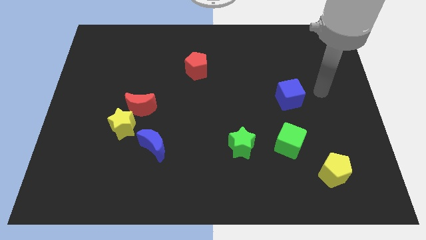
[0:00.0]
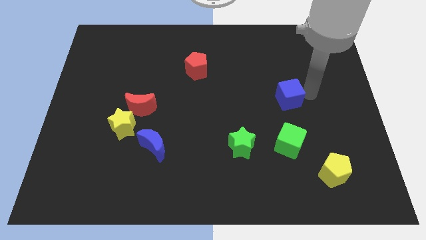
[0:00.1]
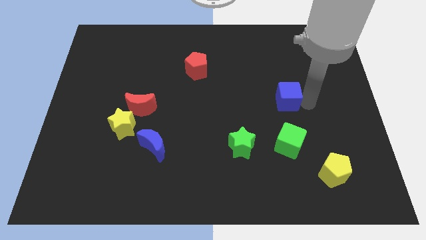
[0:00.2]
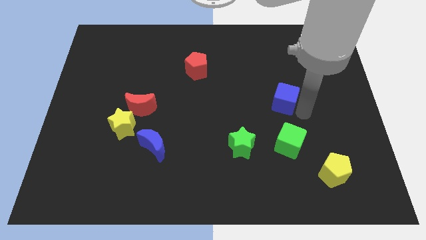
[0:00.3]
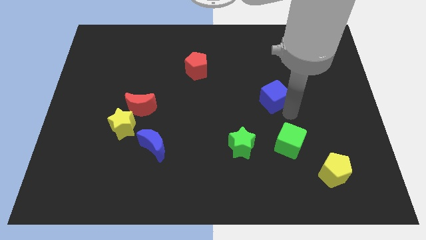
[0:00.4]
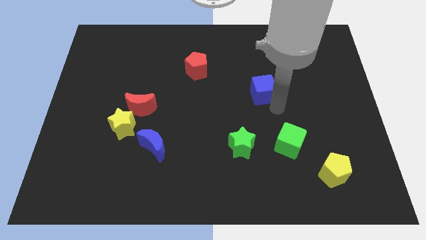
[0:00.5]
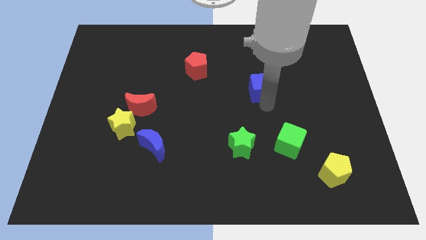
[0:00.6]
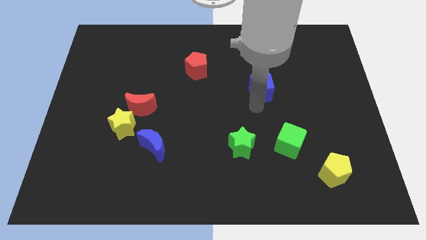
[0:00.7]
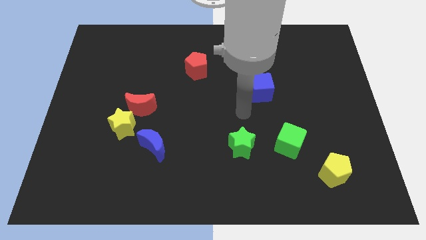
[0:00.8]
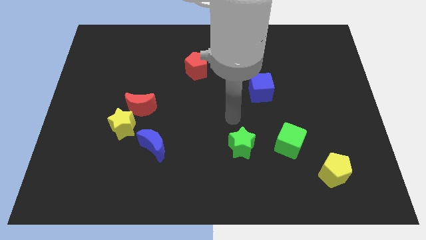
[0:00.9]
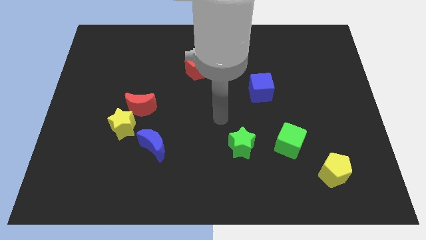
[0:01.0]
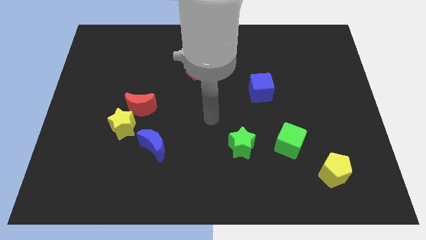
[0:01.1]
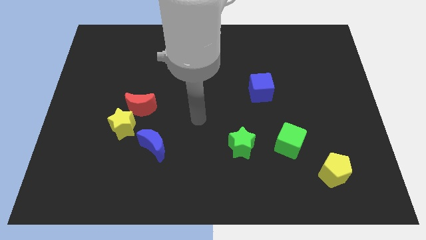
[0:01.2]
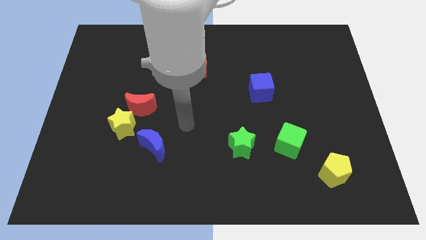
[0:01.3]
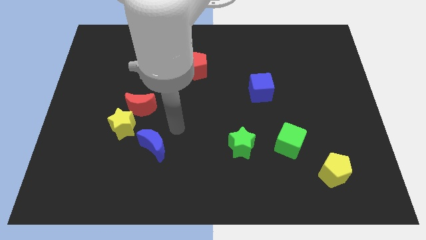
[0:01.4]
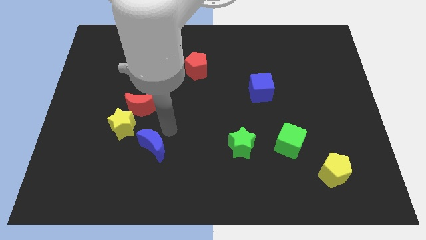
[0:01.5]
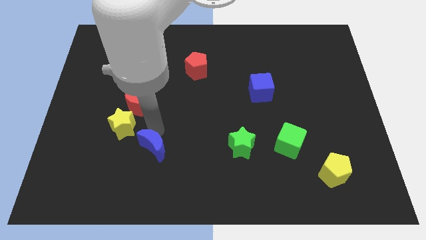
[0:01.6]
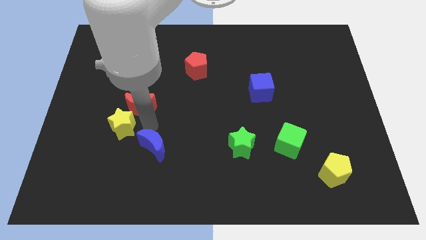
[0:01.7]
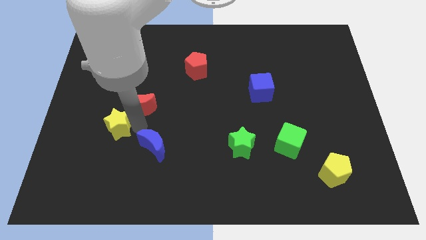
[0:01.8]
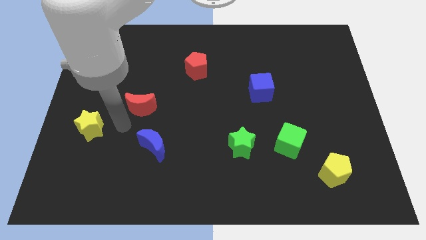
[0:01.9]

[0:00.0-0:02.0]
separate the red moon from the yellow star

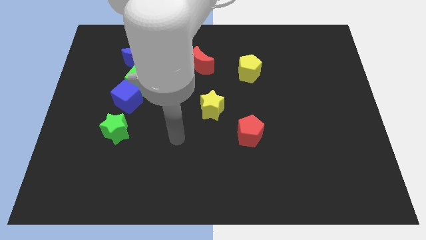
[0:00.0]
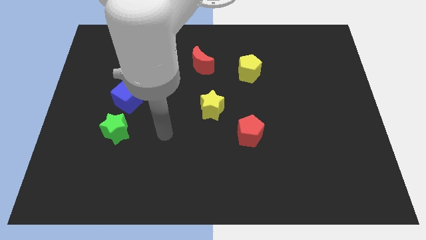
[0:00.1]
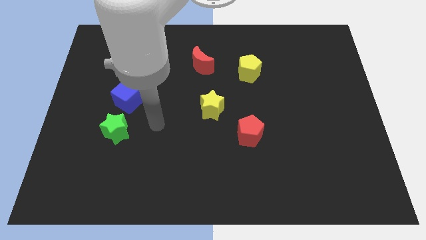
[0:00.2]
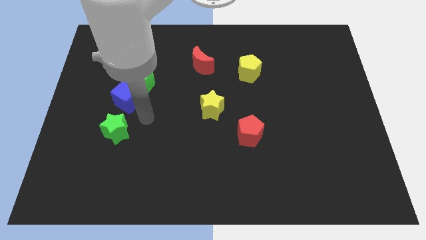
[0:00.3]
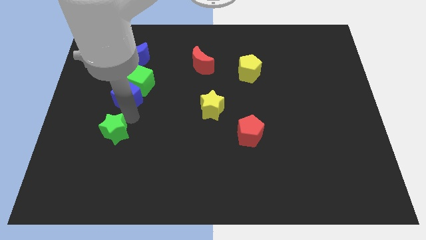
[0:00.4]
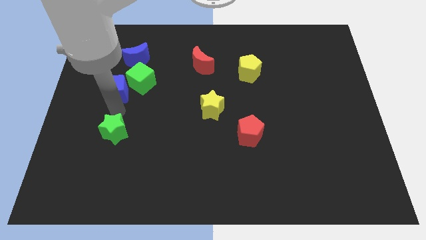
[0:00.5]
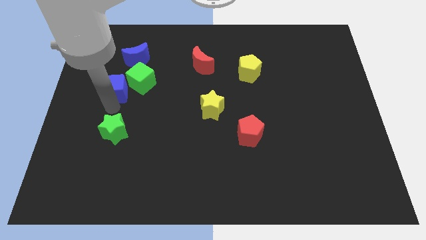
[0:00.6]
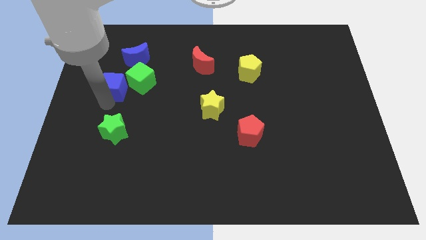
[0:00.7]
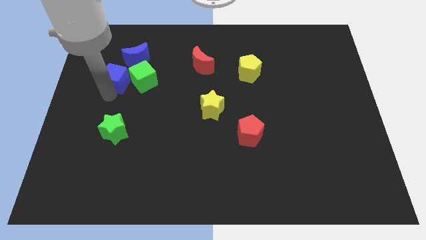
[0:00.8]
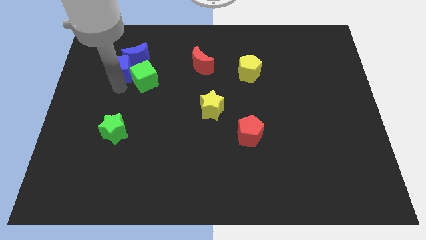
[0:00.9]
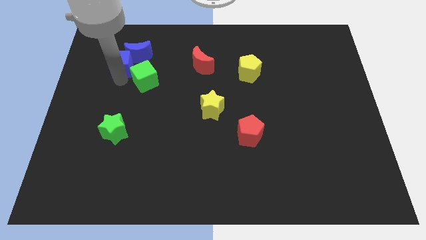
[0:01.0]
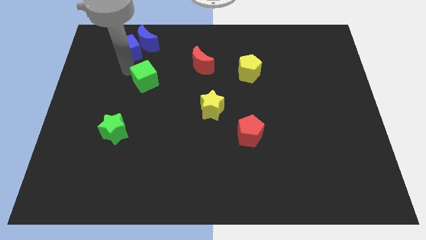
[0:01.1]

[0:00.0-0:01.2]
separate the green cube from the blue cube and blue moon

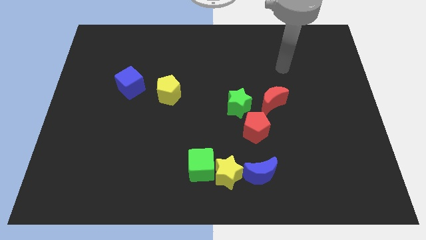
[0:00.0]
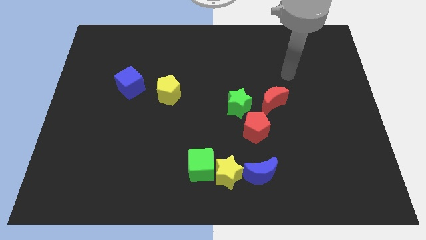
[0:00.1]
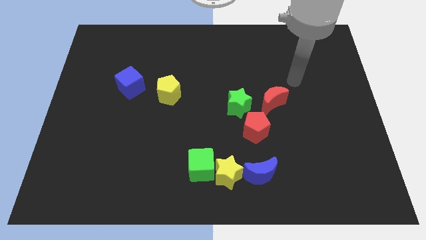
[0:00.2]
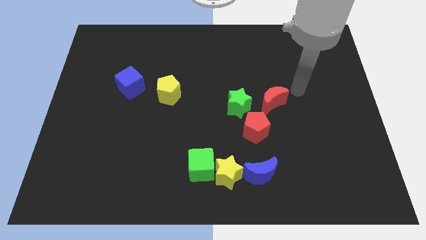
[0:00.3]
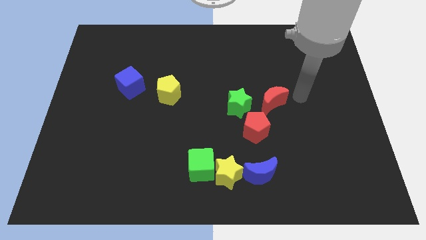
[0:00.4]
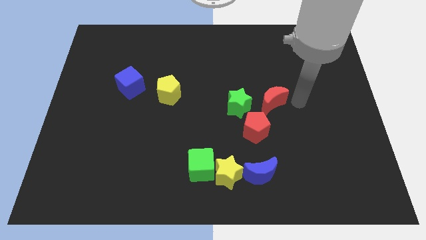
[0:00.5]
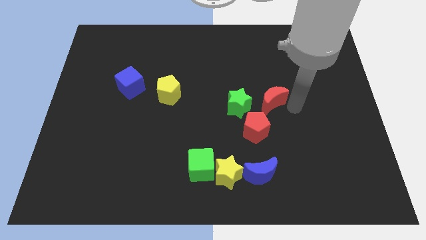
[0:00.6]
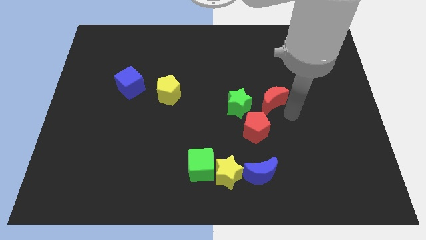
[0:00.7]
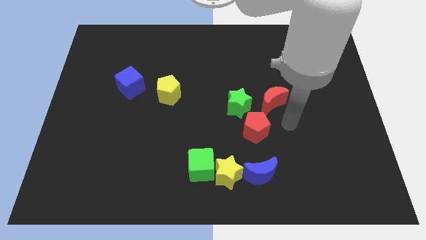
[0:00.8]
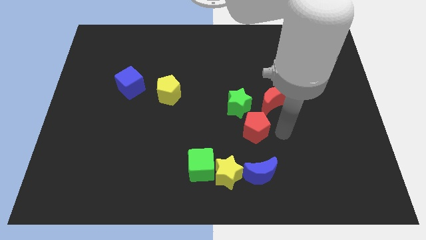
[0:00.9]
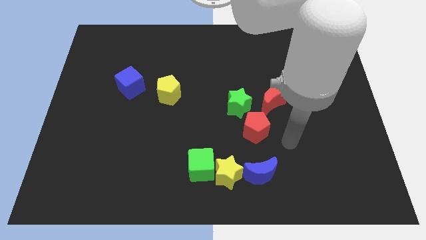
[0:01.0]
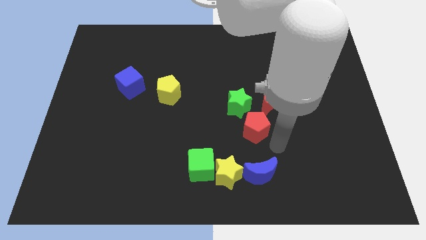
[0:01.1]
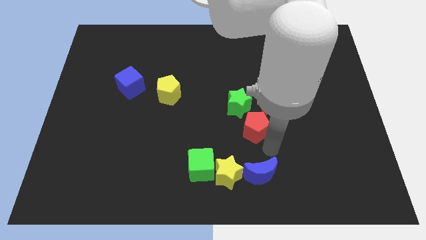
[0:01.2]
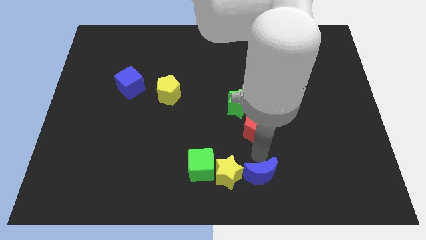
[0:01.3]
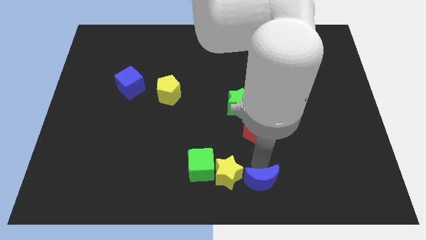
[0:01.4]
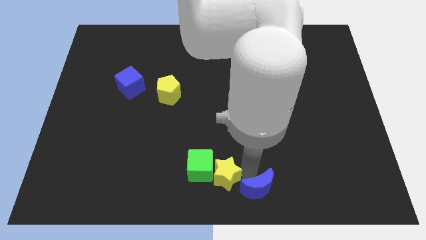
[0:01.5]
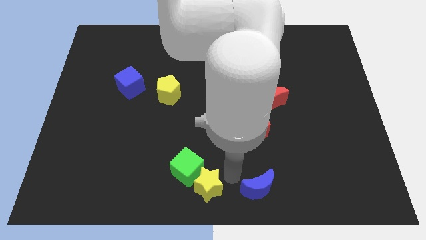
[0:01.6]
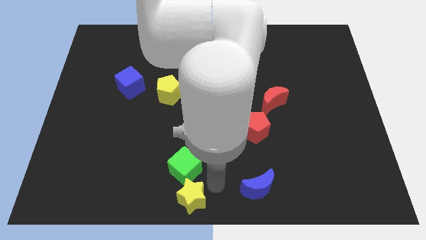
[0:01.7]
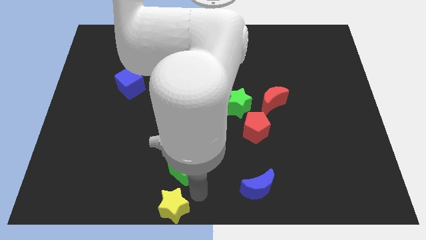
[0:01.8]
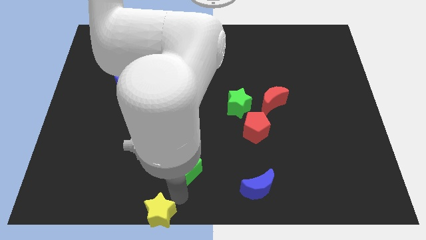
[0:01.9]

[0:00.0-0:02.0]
move the green cube away from the yellow star

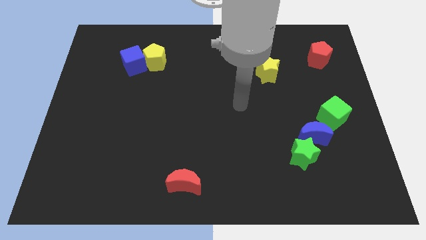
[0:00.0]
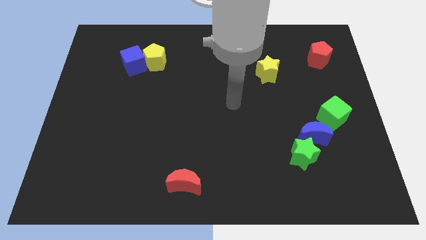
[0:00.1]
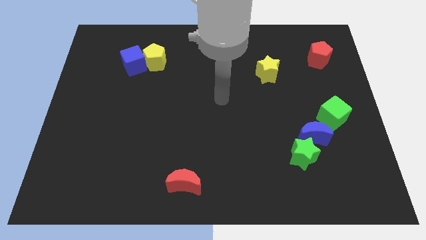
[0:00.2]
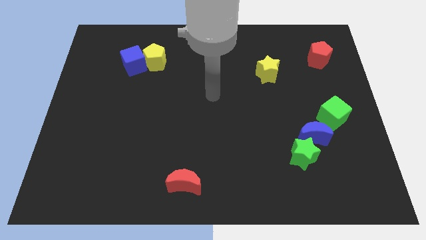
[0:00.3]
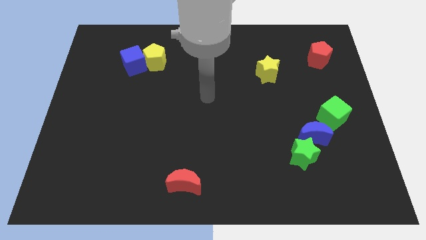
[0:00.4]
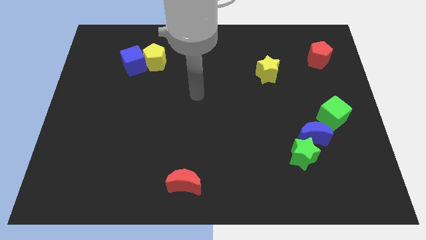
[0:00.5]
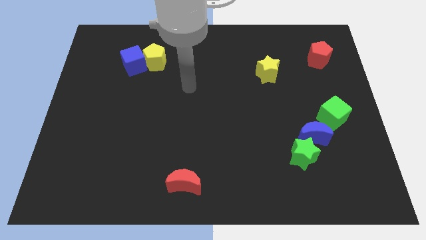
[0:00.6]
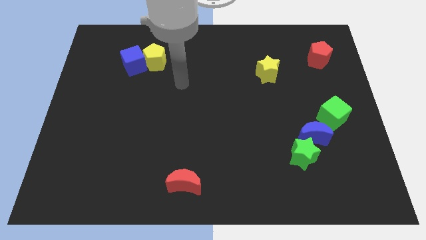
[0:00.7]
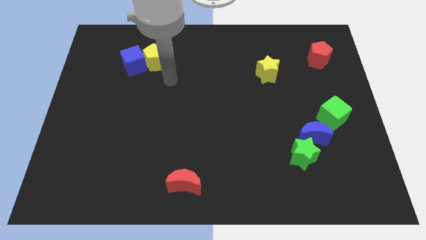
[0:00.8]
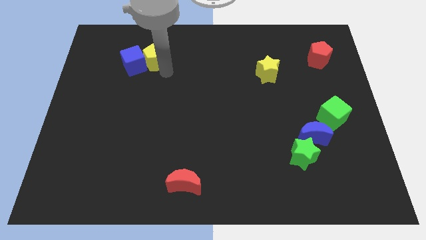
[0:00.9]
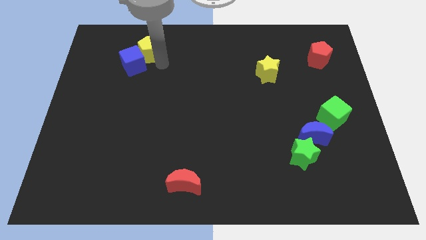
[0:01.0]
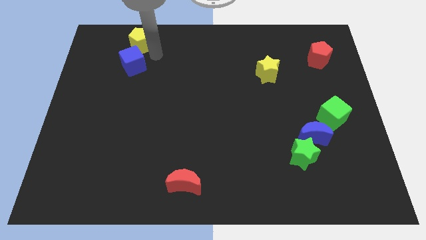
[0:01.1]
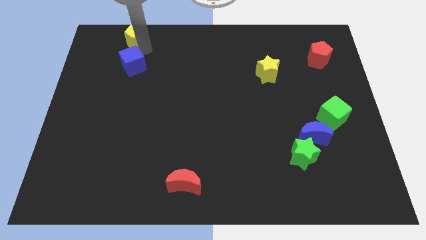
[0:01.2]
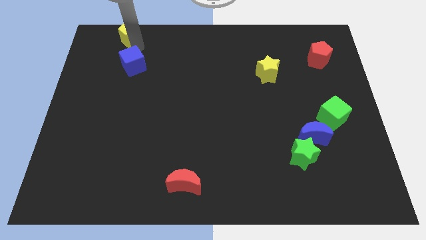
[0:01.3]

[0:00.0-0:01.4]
move the blue cube away from the yellow pentagon

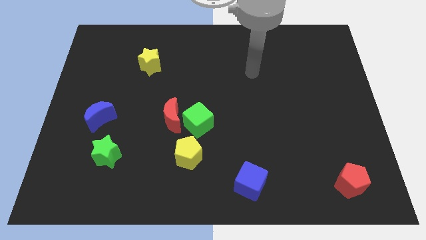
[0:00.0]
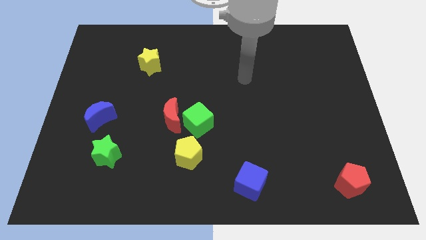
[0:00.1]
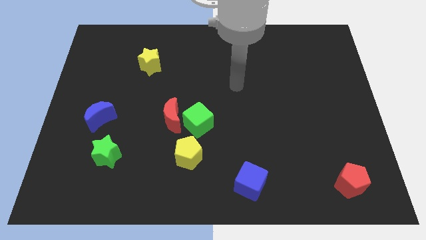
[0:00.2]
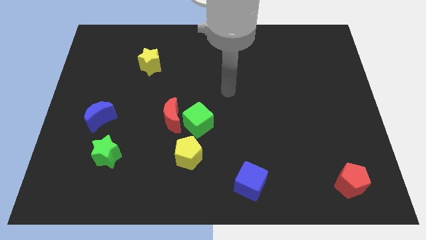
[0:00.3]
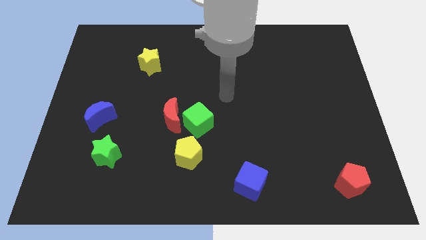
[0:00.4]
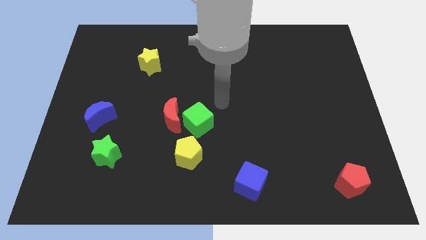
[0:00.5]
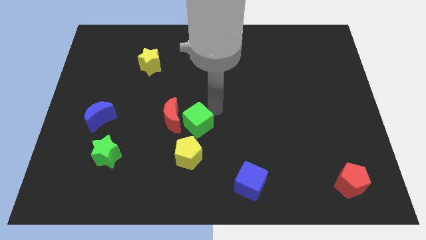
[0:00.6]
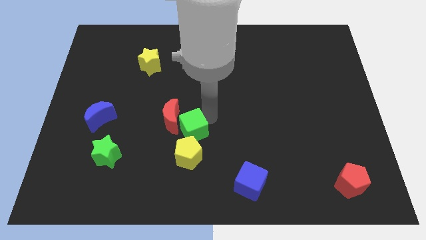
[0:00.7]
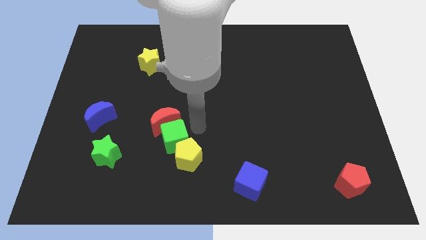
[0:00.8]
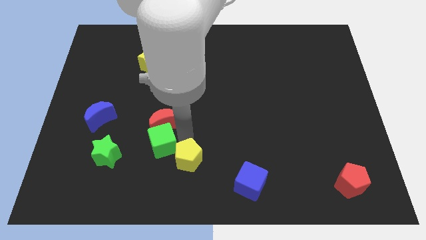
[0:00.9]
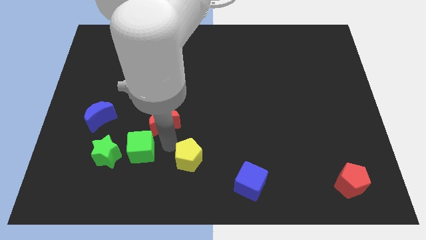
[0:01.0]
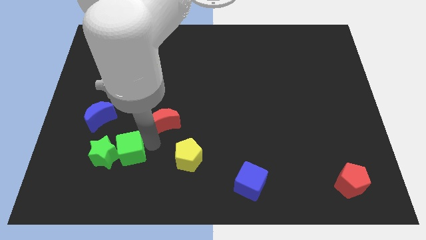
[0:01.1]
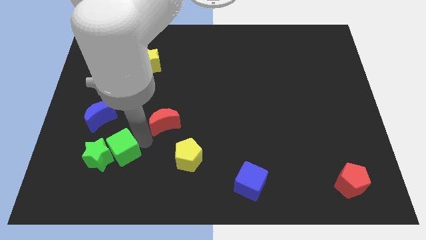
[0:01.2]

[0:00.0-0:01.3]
separate the red moon from the green cube

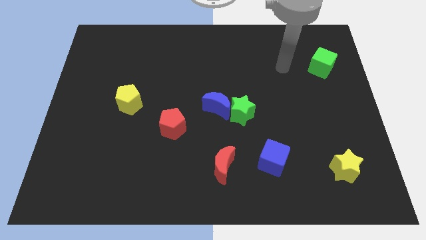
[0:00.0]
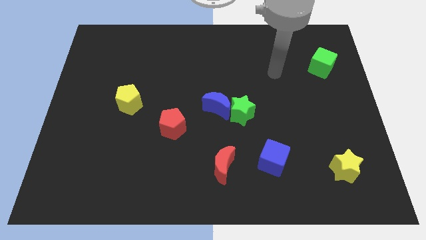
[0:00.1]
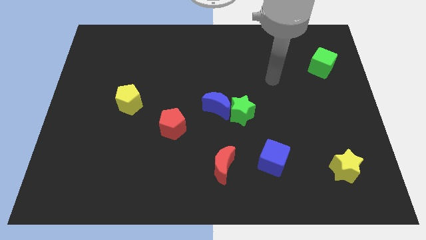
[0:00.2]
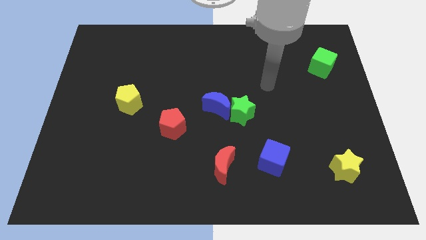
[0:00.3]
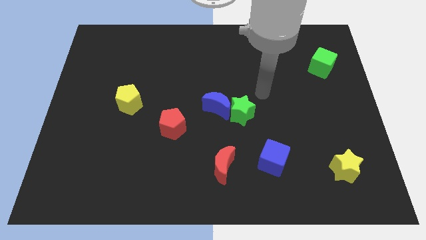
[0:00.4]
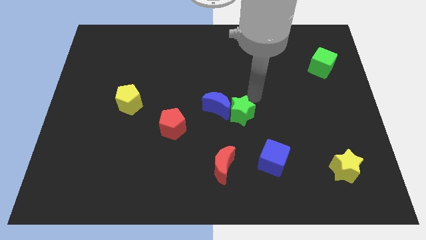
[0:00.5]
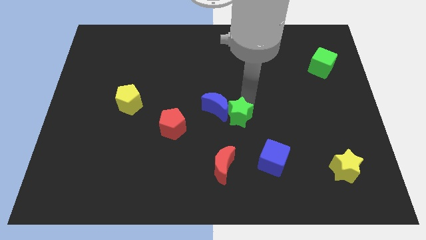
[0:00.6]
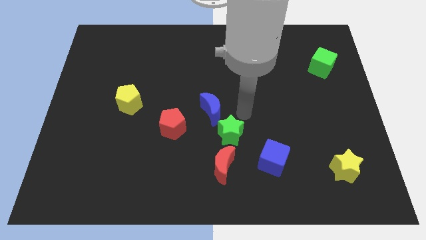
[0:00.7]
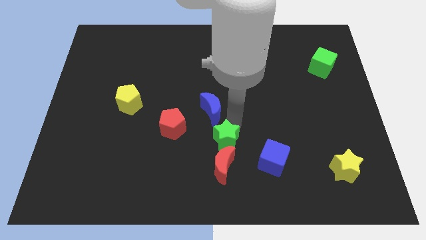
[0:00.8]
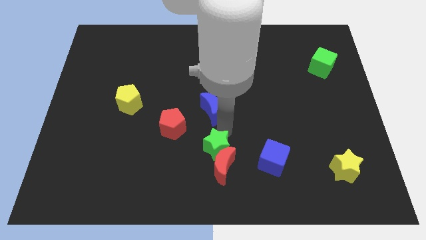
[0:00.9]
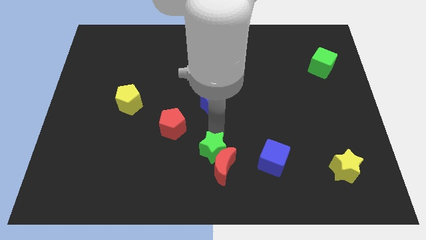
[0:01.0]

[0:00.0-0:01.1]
move the blue moon away from the green star

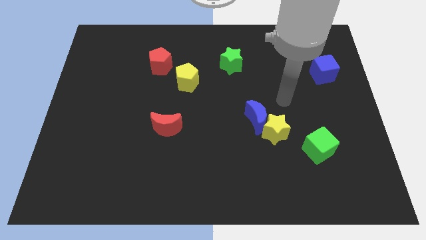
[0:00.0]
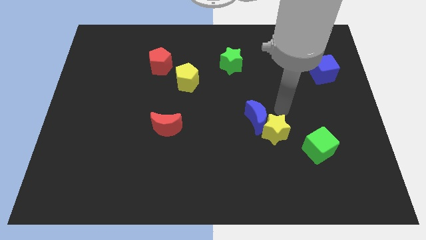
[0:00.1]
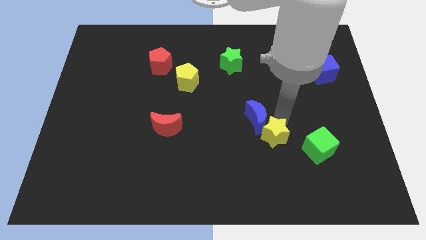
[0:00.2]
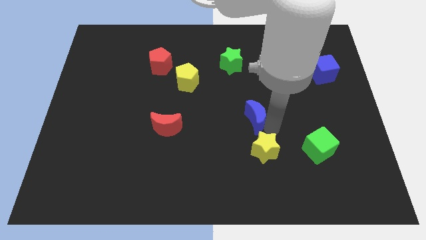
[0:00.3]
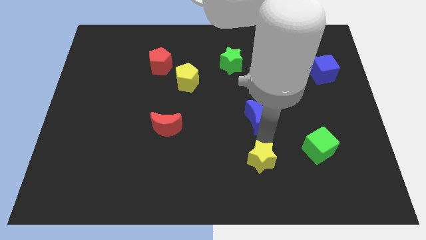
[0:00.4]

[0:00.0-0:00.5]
move the blue moon away from the yellow star
